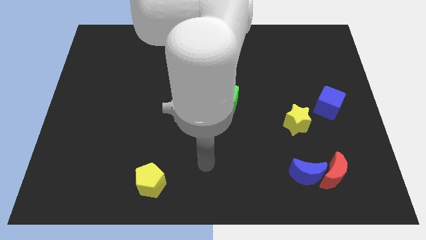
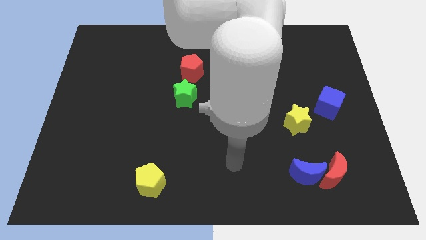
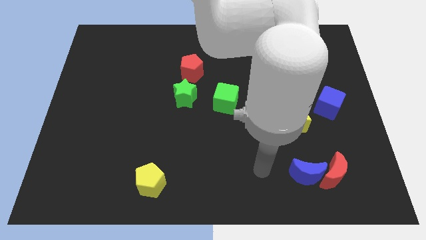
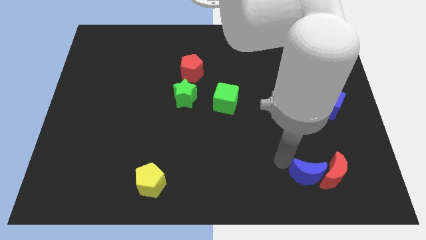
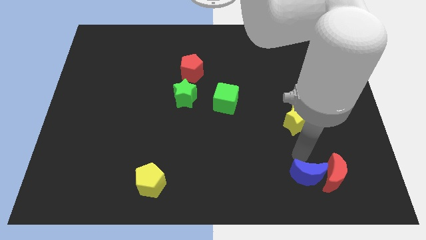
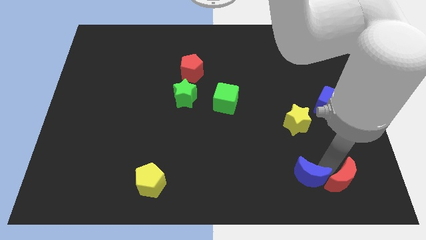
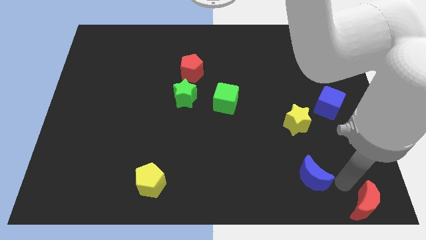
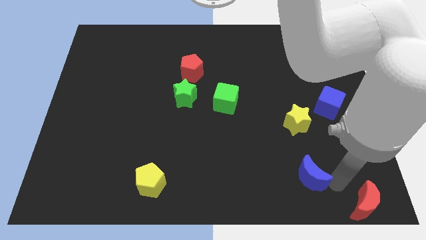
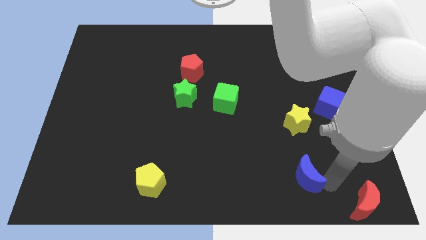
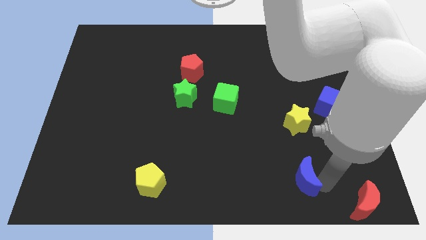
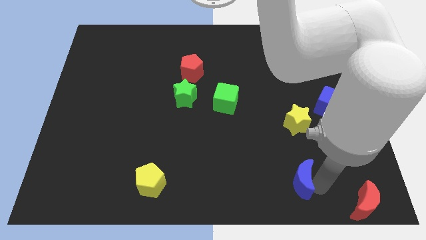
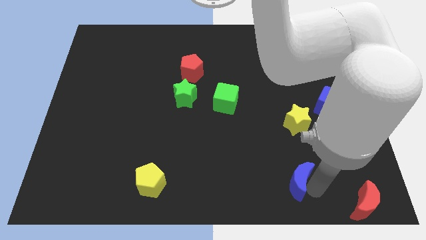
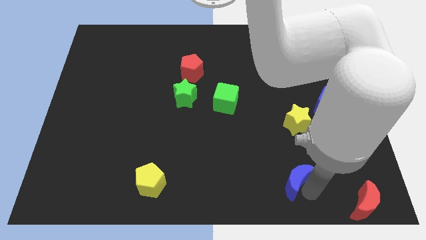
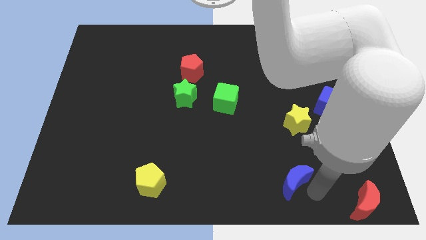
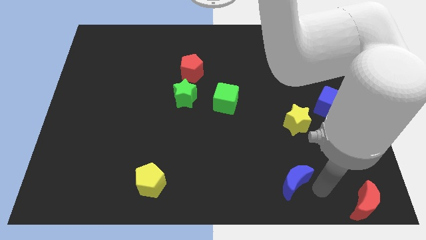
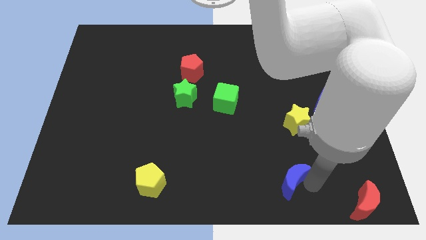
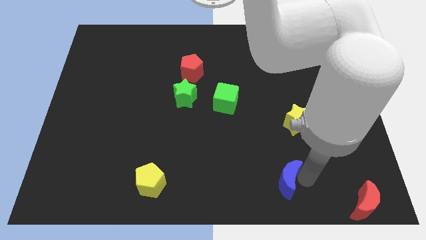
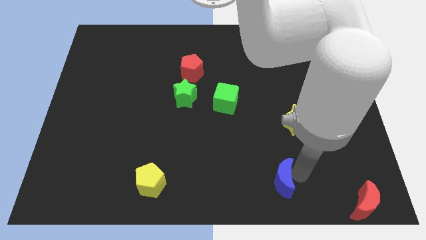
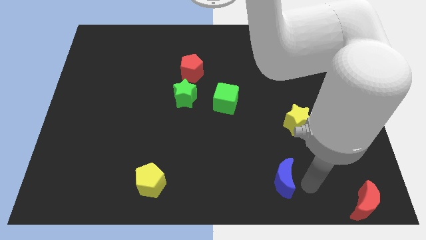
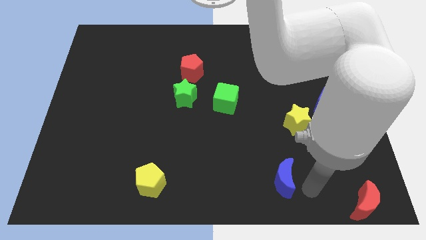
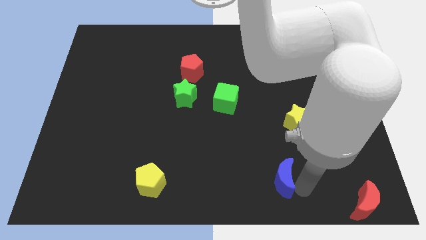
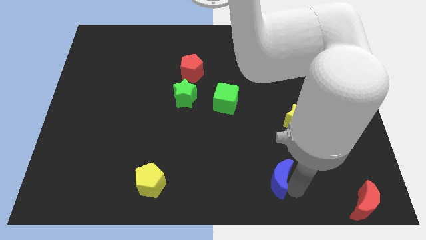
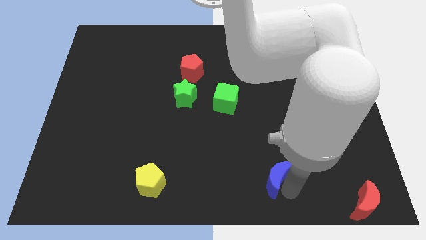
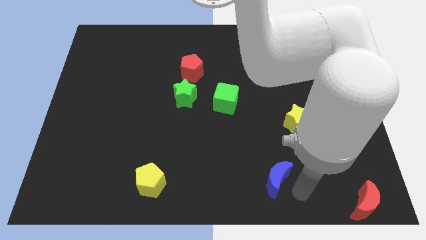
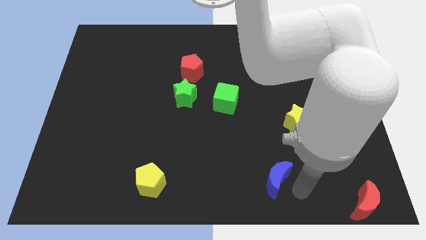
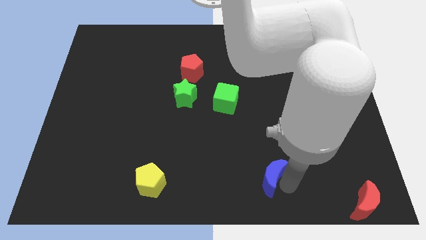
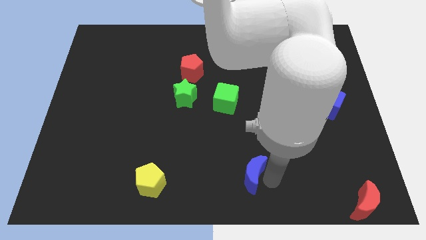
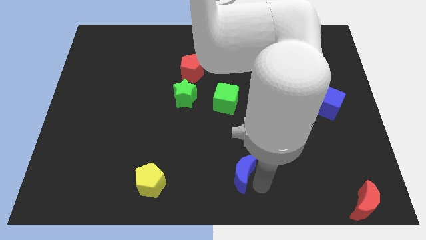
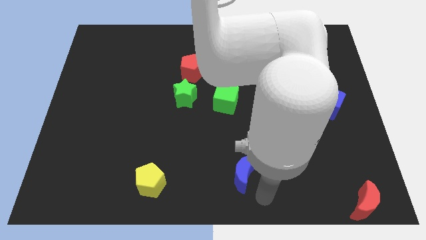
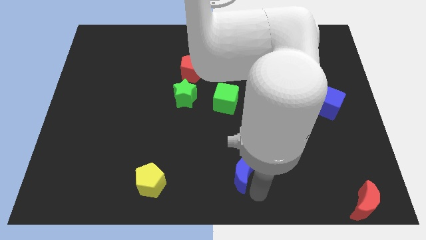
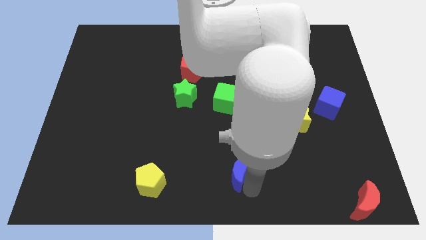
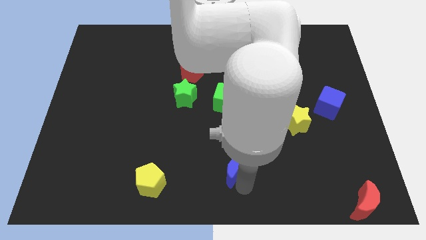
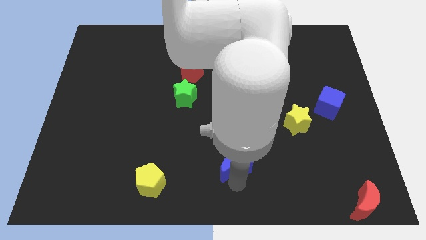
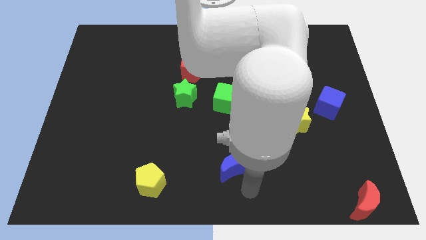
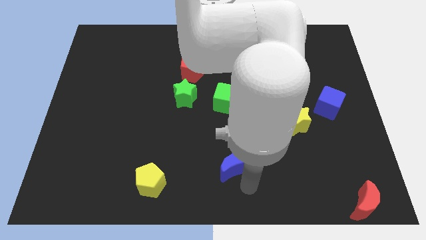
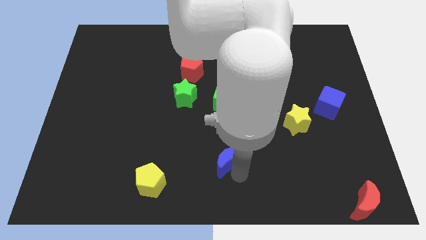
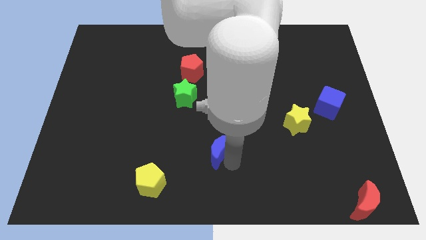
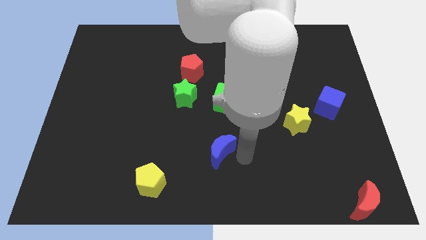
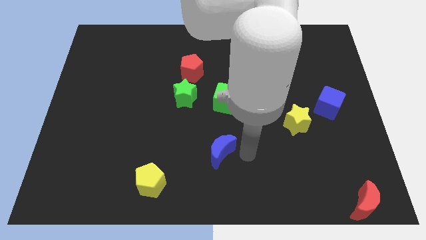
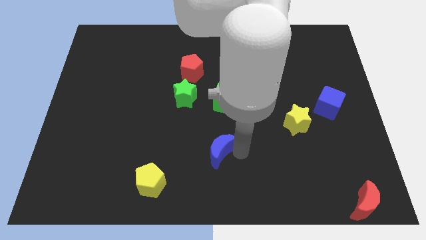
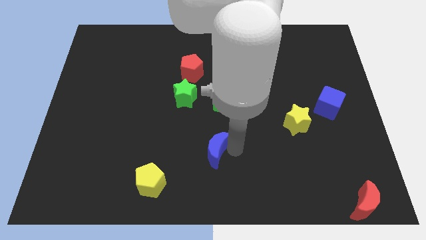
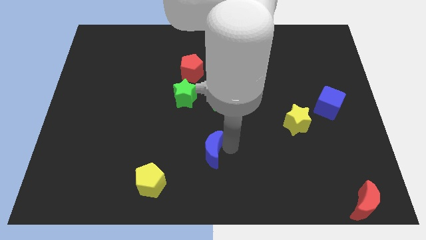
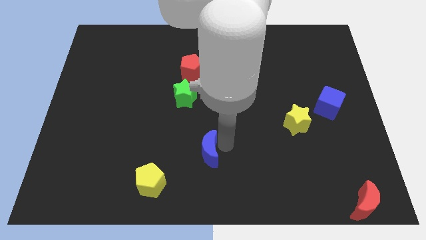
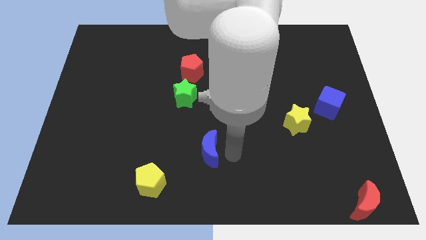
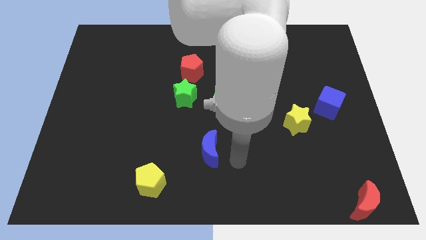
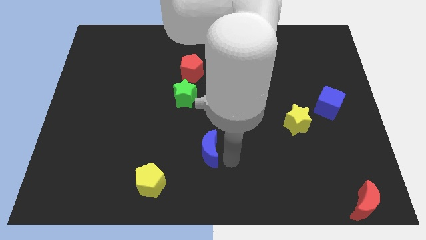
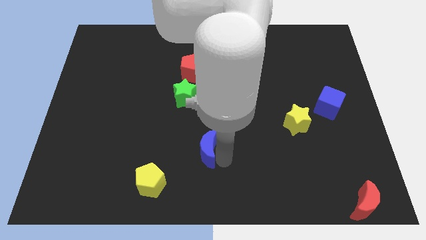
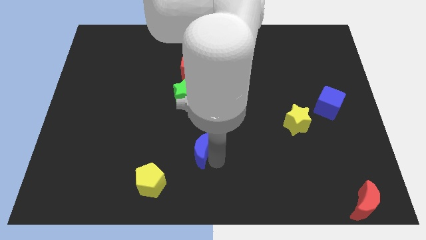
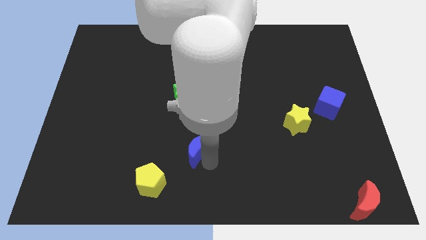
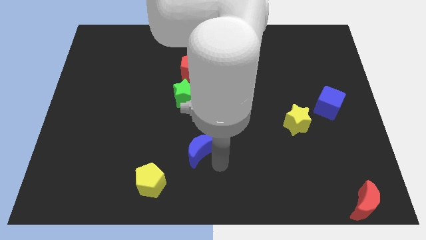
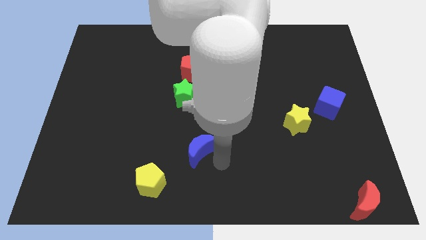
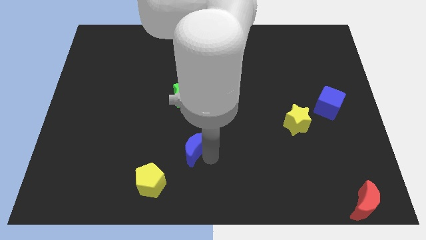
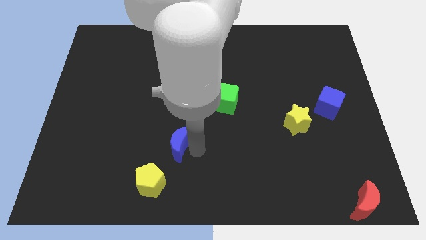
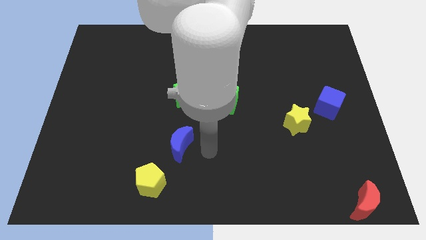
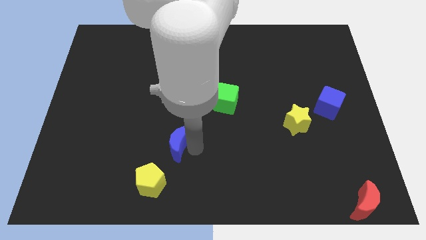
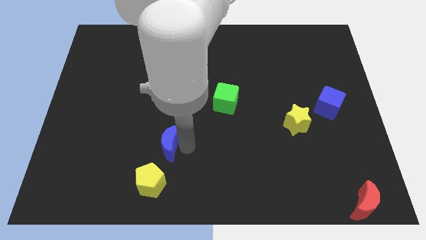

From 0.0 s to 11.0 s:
slide the blue moon to the top of the yellow pentagon
